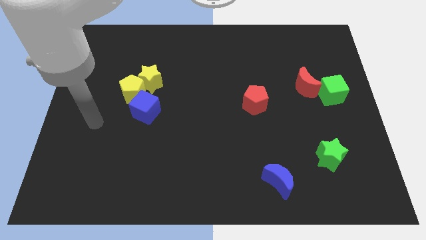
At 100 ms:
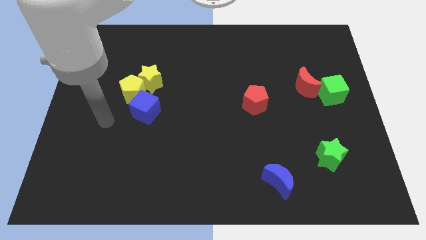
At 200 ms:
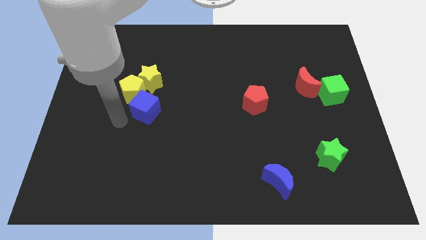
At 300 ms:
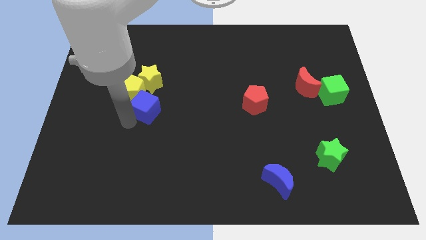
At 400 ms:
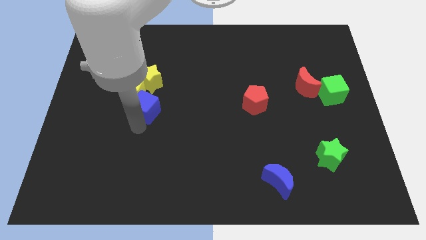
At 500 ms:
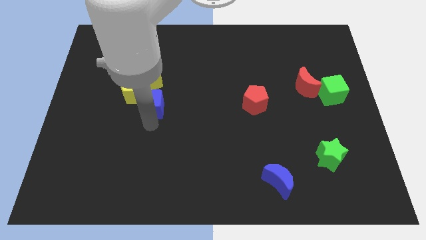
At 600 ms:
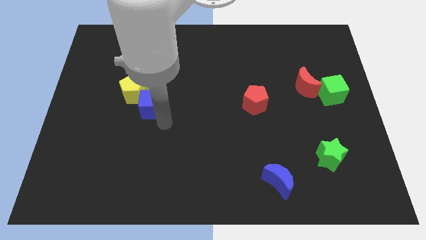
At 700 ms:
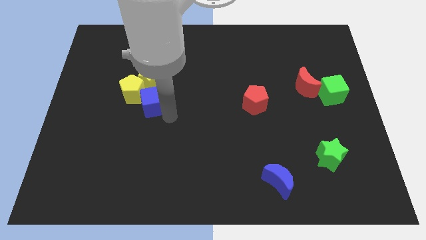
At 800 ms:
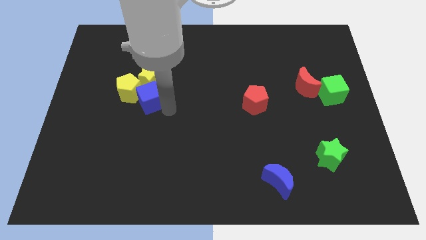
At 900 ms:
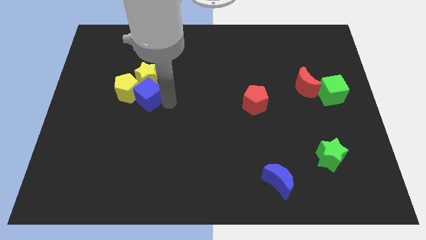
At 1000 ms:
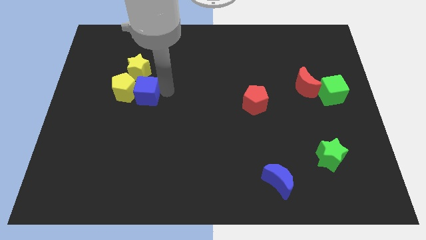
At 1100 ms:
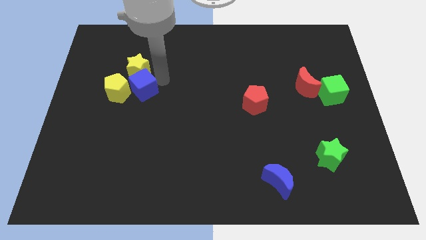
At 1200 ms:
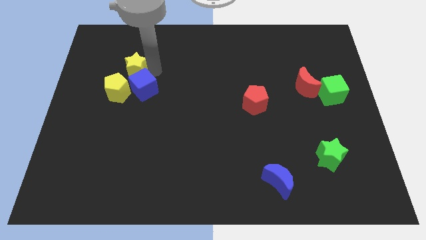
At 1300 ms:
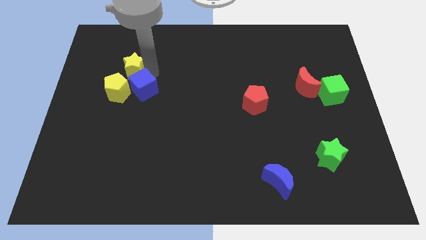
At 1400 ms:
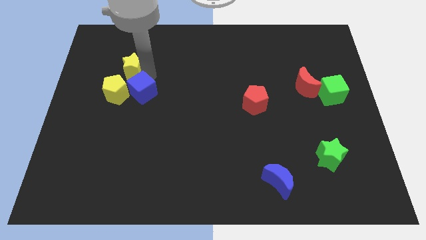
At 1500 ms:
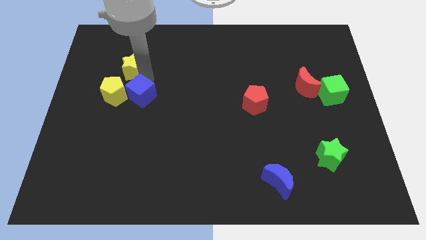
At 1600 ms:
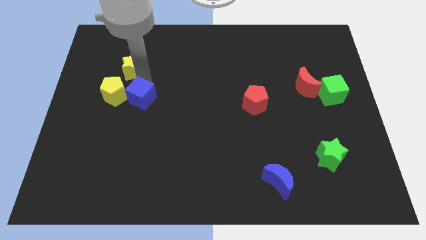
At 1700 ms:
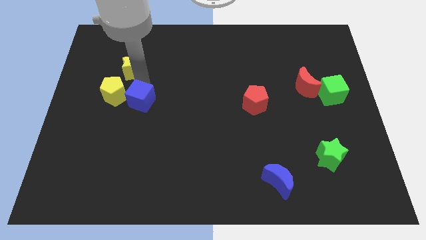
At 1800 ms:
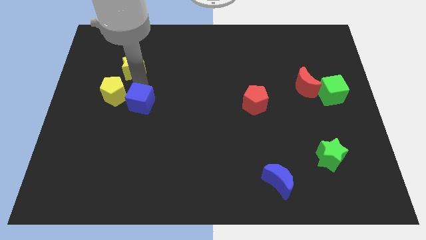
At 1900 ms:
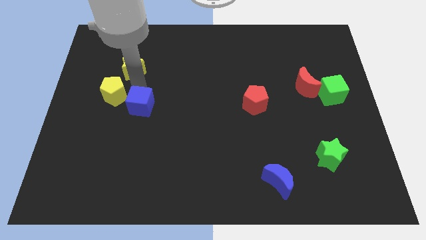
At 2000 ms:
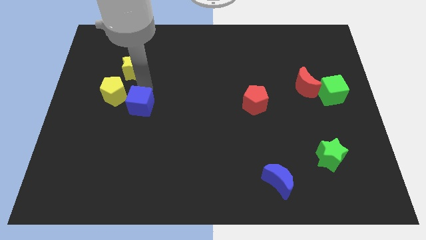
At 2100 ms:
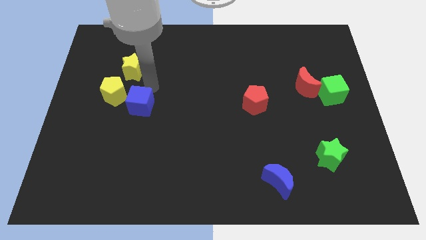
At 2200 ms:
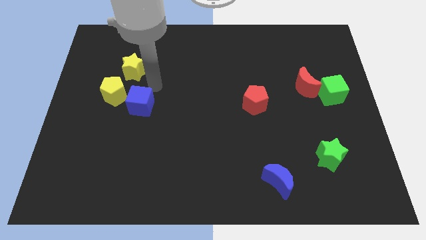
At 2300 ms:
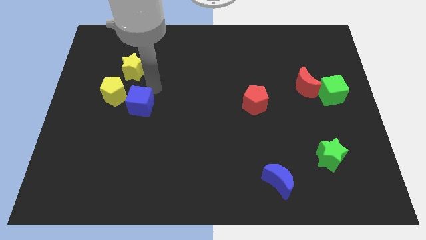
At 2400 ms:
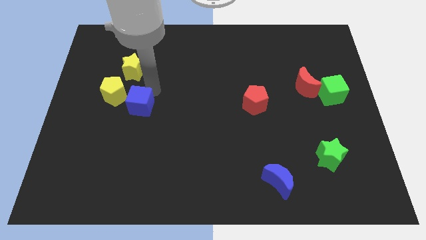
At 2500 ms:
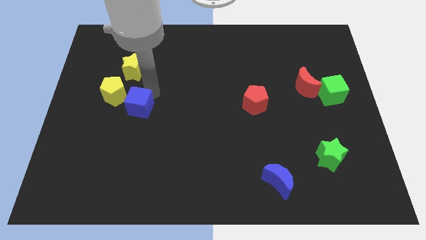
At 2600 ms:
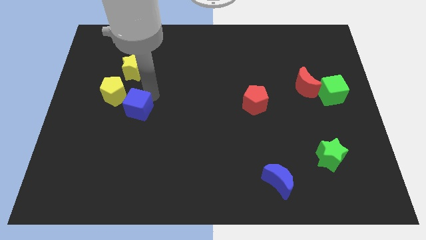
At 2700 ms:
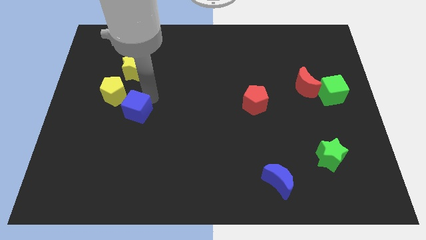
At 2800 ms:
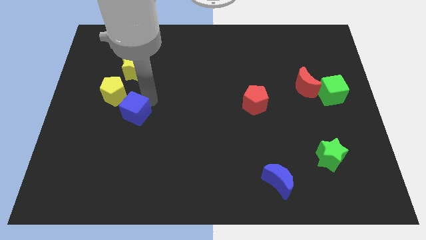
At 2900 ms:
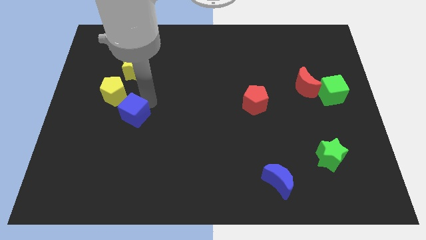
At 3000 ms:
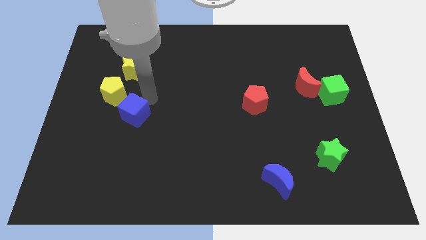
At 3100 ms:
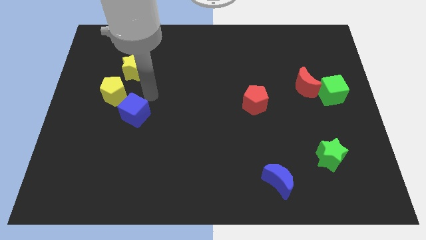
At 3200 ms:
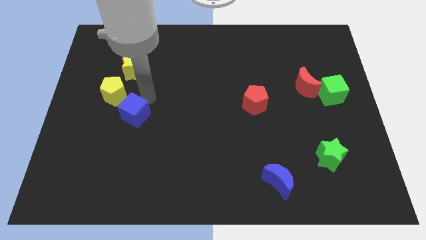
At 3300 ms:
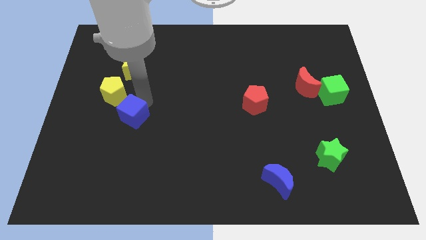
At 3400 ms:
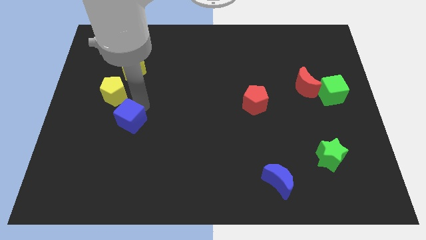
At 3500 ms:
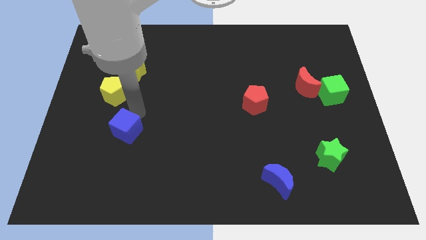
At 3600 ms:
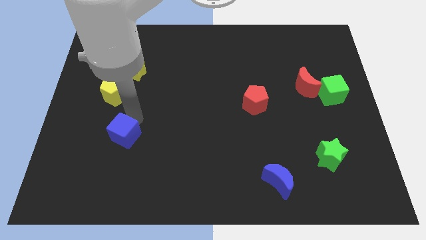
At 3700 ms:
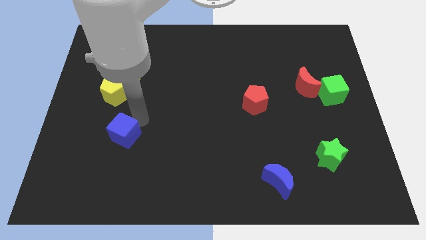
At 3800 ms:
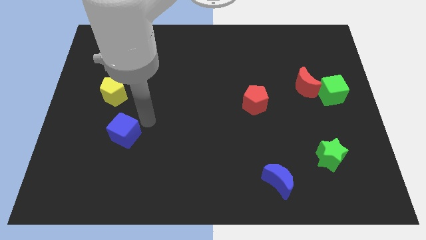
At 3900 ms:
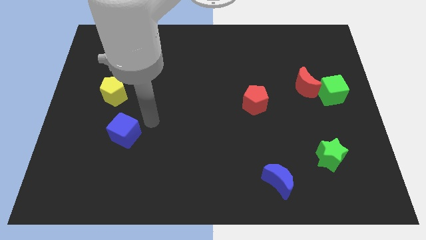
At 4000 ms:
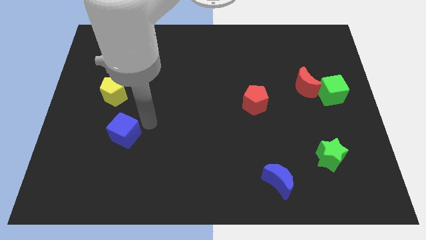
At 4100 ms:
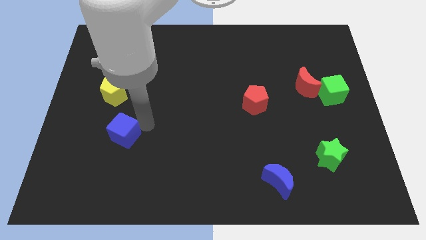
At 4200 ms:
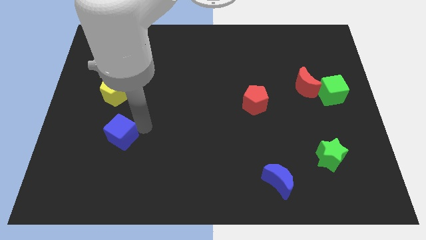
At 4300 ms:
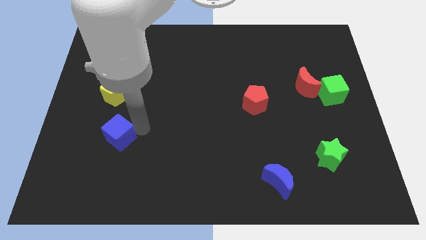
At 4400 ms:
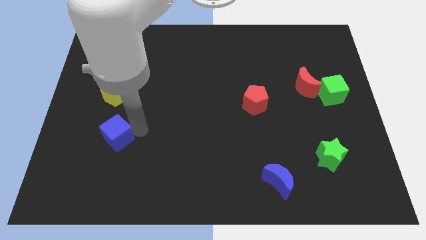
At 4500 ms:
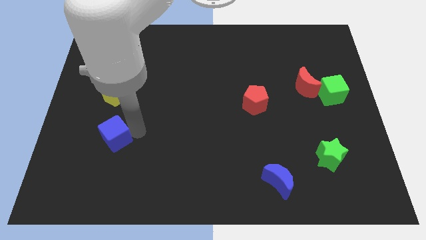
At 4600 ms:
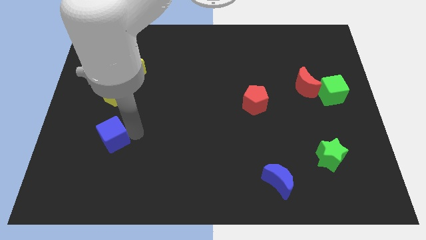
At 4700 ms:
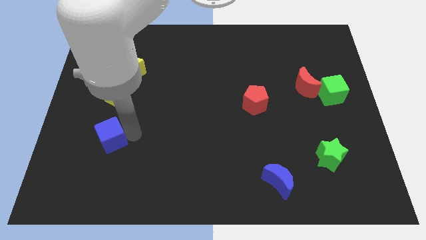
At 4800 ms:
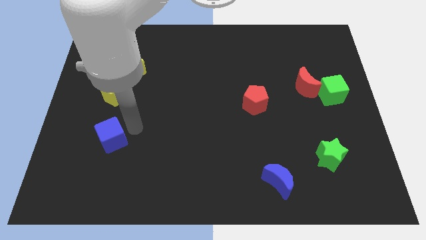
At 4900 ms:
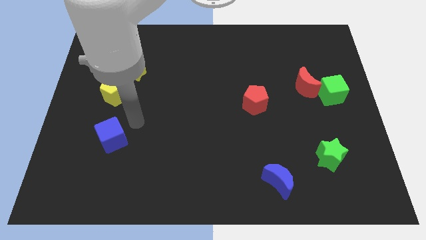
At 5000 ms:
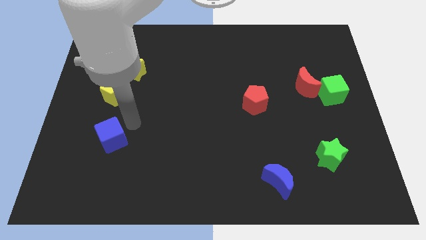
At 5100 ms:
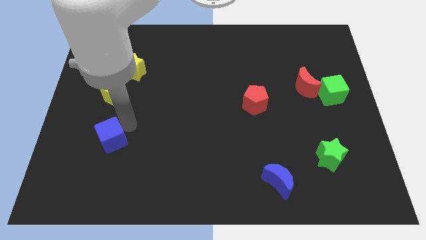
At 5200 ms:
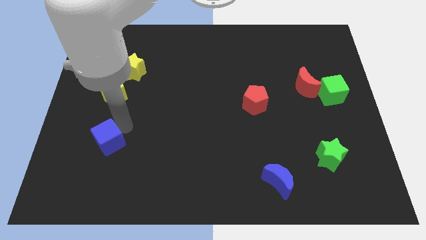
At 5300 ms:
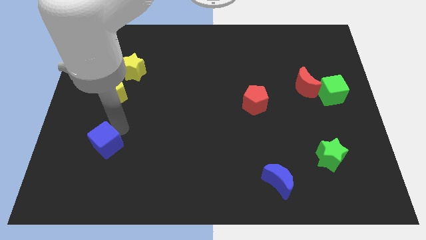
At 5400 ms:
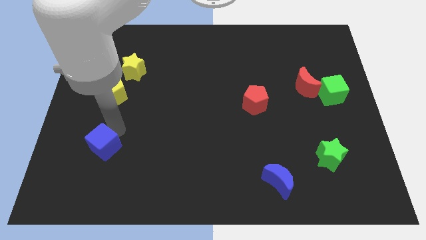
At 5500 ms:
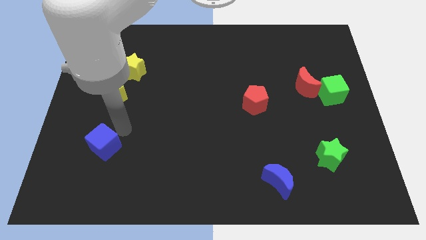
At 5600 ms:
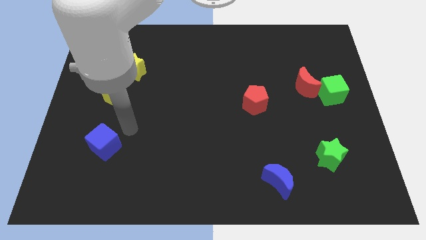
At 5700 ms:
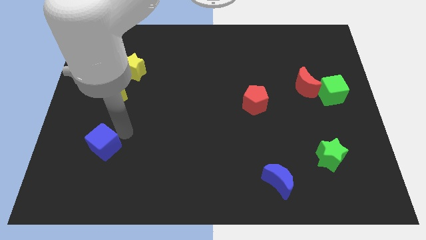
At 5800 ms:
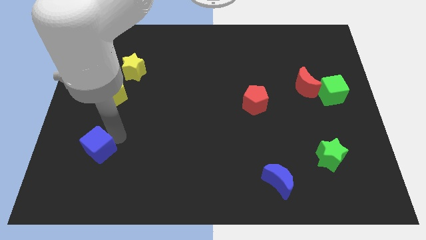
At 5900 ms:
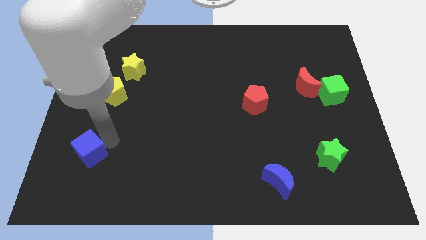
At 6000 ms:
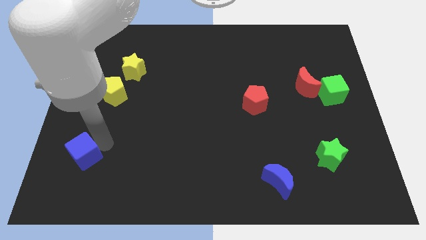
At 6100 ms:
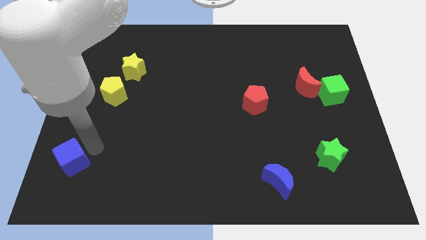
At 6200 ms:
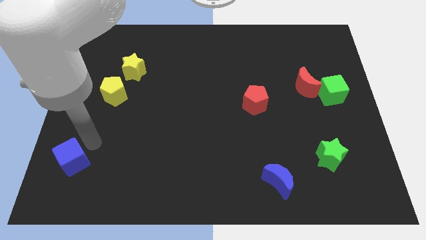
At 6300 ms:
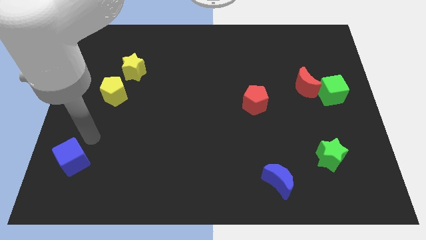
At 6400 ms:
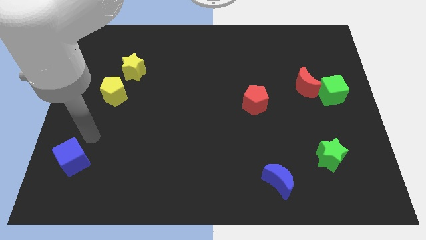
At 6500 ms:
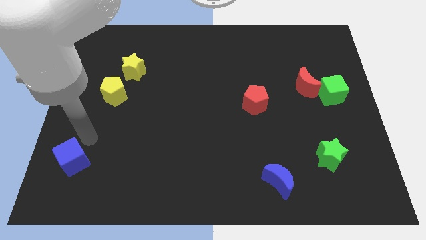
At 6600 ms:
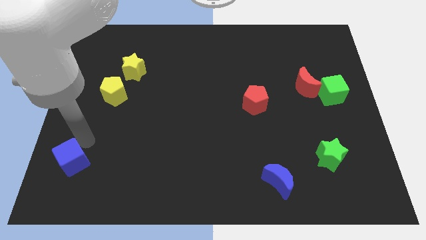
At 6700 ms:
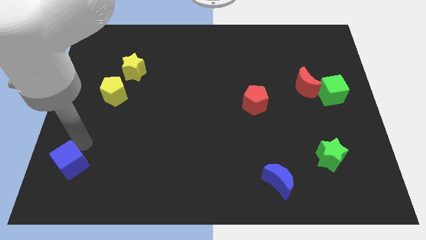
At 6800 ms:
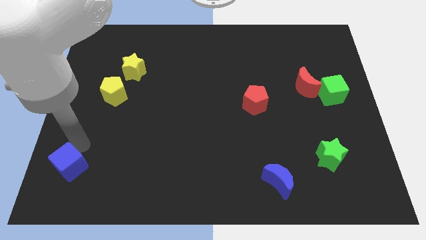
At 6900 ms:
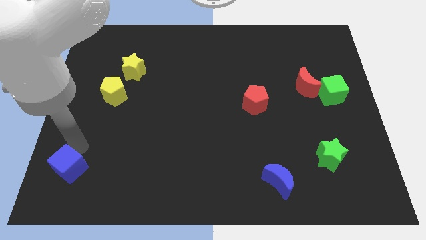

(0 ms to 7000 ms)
slide the blue cube to the bottom left of the board
